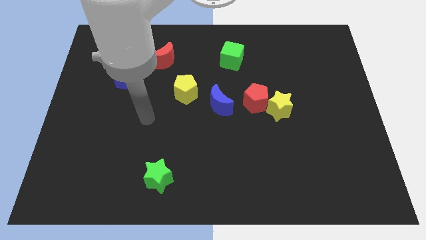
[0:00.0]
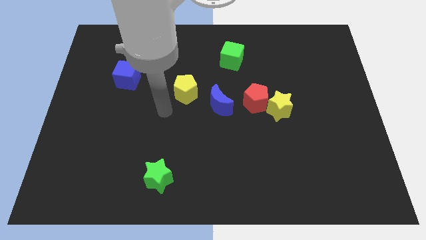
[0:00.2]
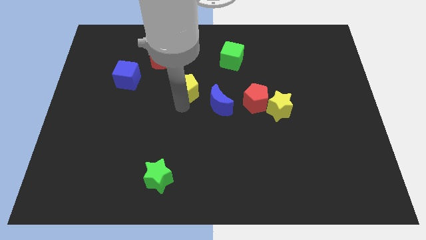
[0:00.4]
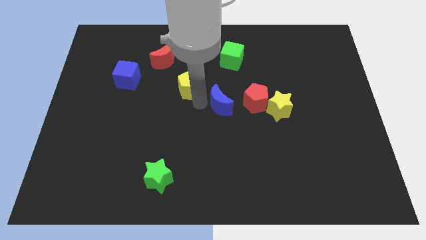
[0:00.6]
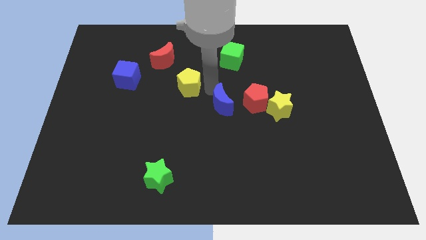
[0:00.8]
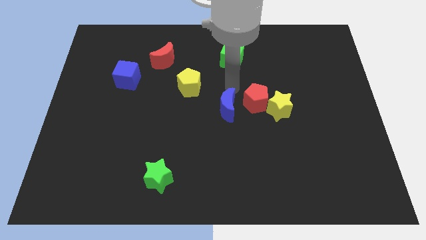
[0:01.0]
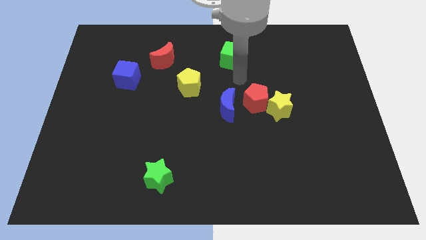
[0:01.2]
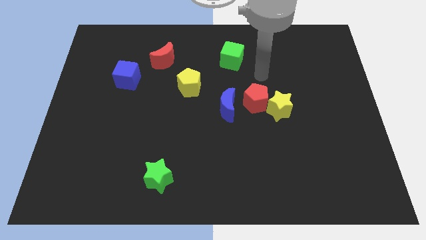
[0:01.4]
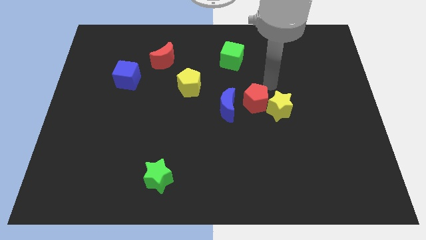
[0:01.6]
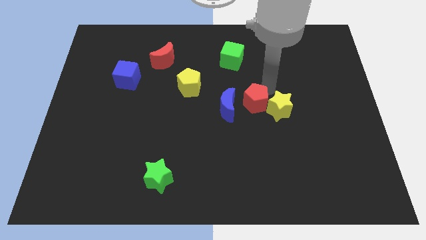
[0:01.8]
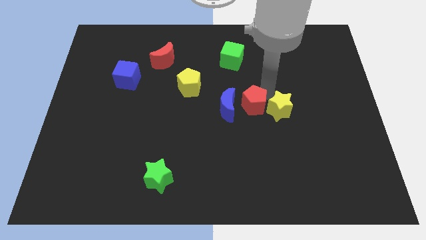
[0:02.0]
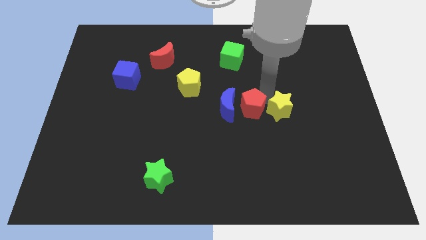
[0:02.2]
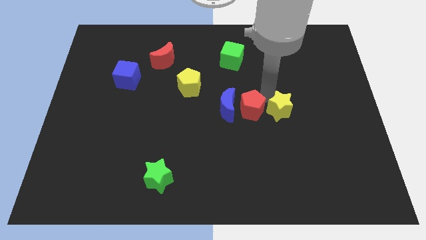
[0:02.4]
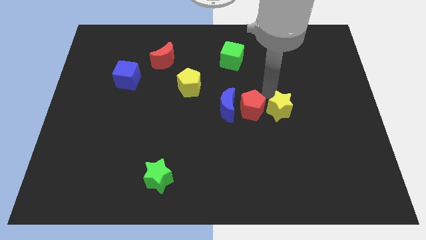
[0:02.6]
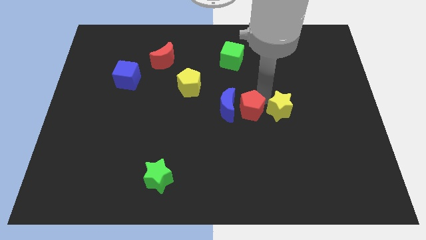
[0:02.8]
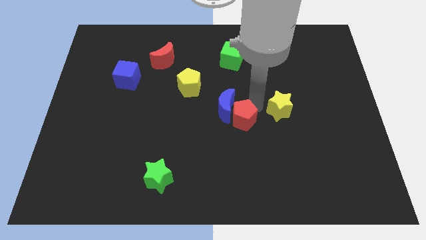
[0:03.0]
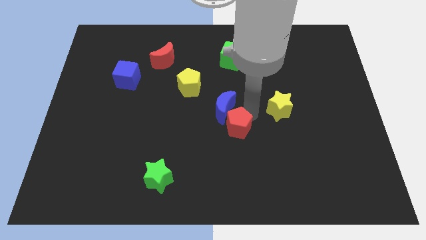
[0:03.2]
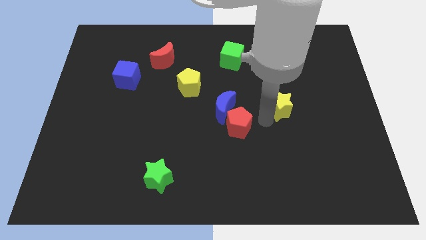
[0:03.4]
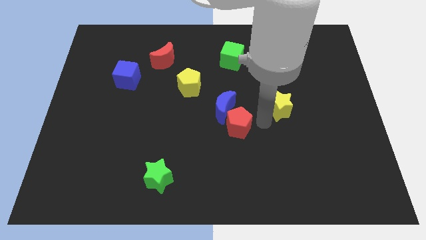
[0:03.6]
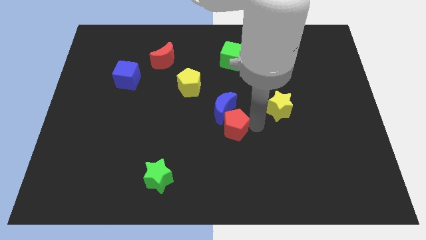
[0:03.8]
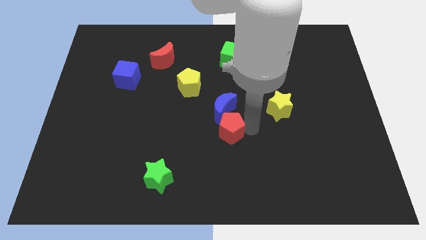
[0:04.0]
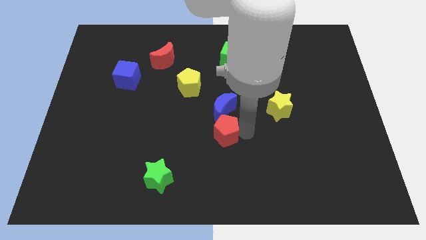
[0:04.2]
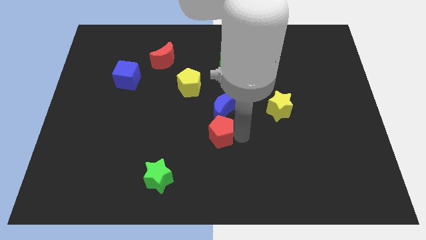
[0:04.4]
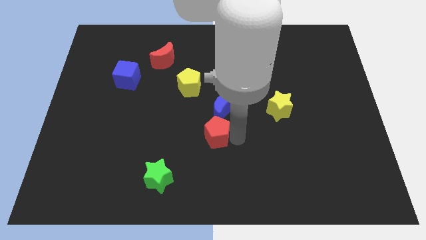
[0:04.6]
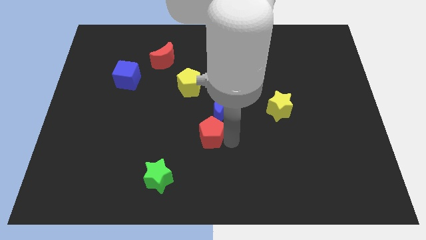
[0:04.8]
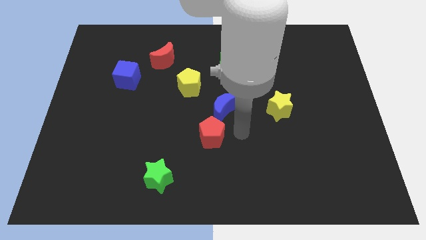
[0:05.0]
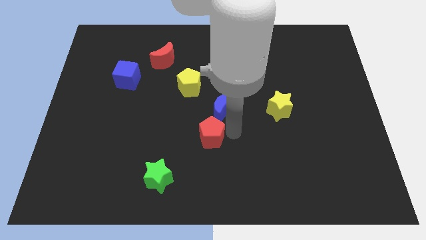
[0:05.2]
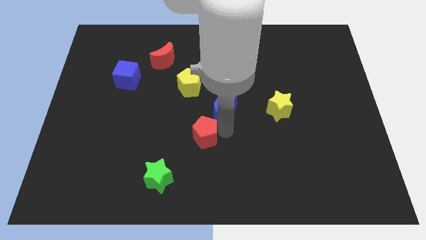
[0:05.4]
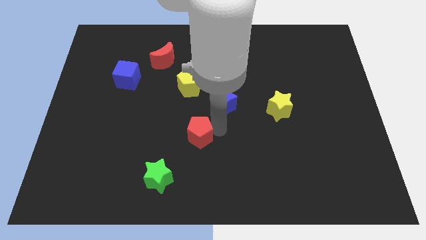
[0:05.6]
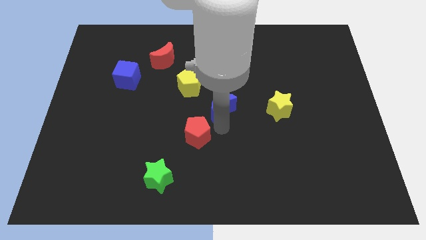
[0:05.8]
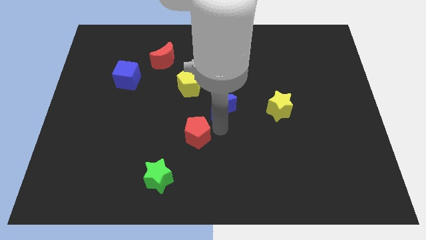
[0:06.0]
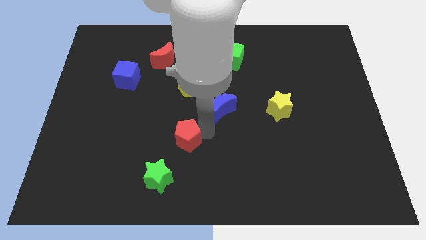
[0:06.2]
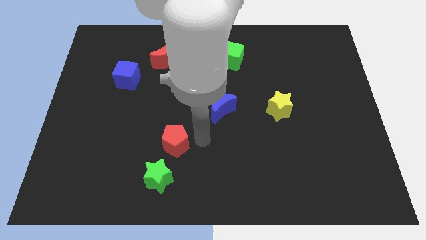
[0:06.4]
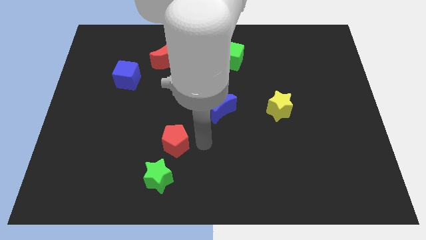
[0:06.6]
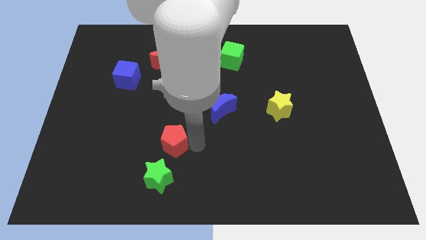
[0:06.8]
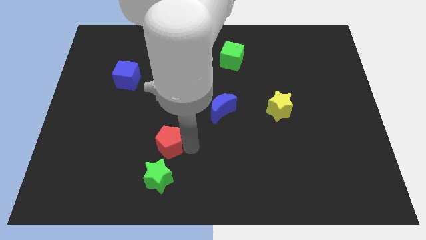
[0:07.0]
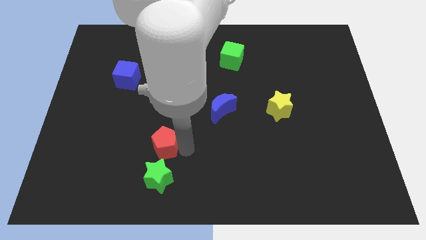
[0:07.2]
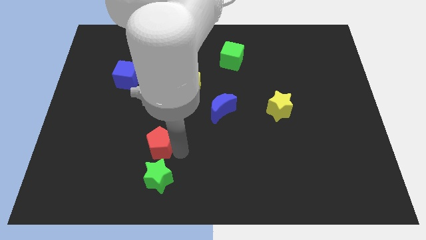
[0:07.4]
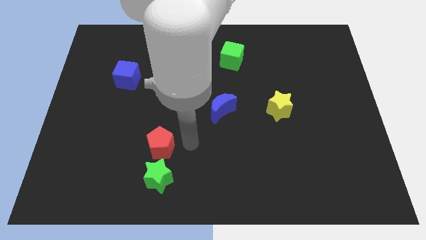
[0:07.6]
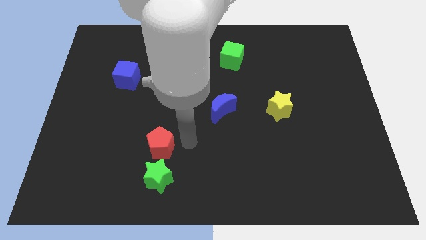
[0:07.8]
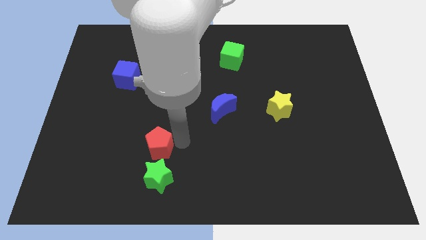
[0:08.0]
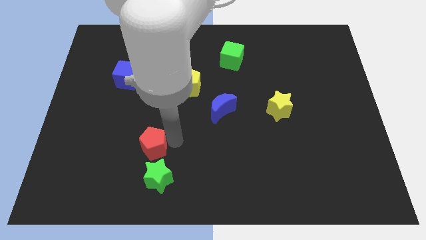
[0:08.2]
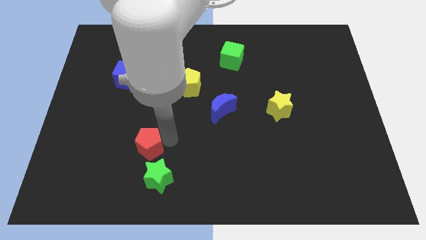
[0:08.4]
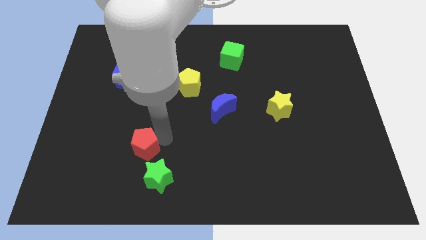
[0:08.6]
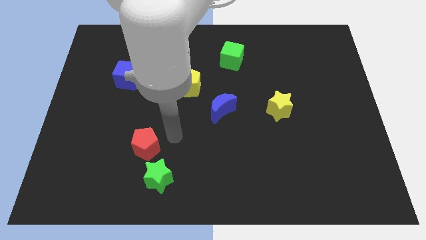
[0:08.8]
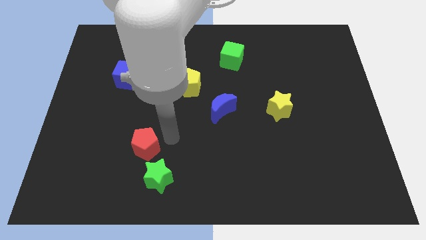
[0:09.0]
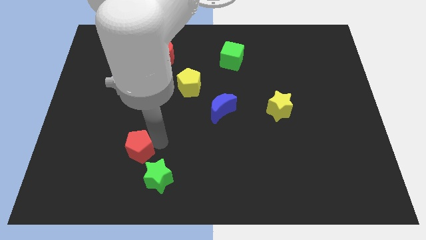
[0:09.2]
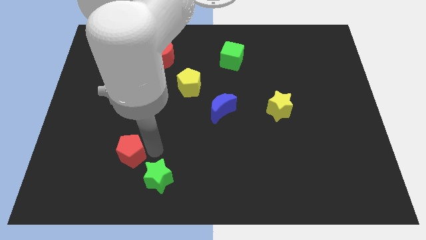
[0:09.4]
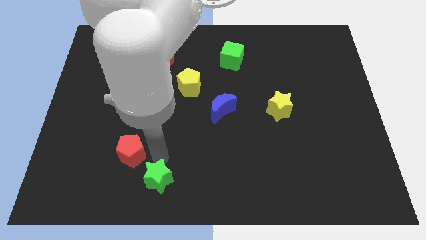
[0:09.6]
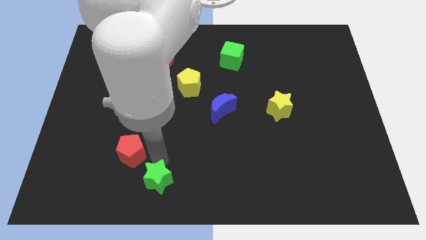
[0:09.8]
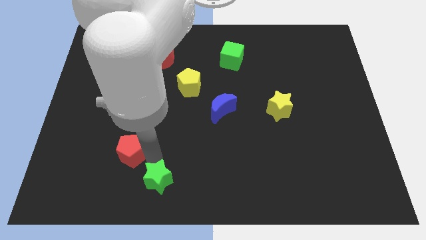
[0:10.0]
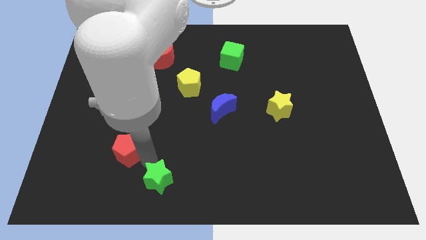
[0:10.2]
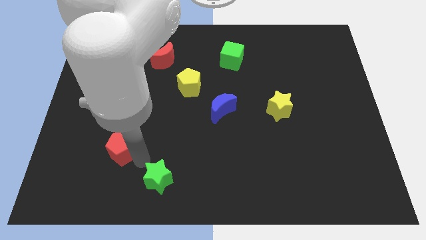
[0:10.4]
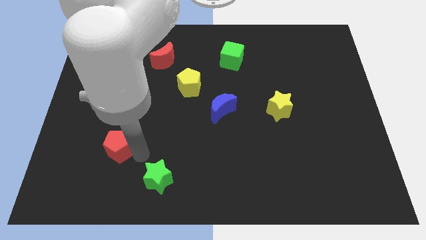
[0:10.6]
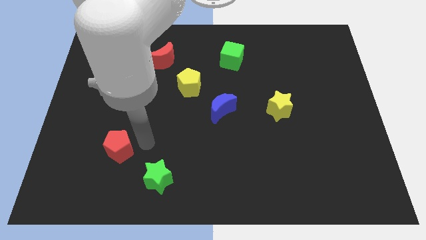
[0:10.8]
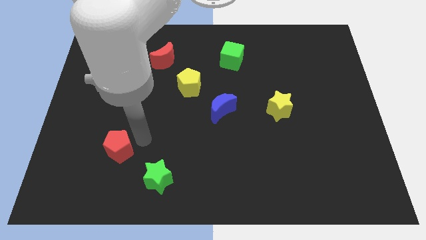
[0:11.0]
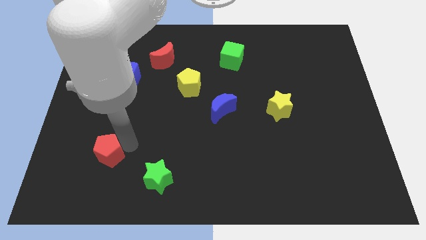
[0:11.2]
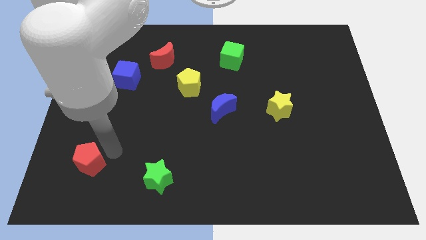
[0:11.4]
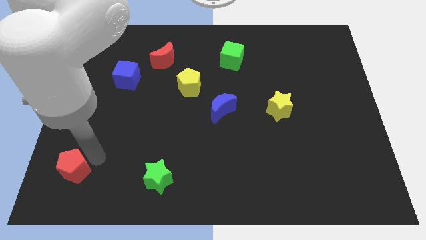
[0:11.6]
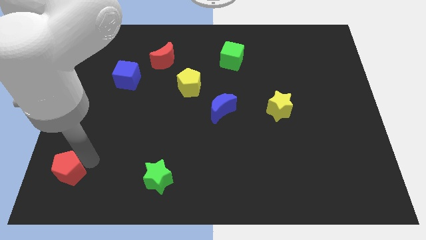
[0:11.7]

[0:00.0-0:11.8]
slide the red pentagon to the bottom left

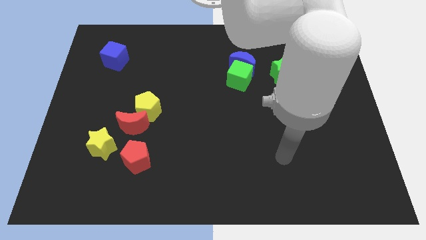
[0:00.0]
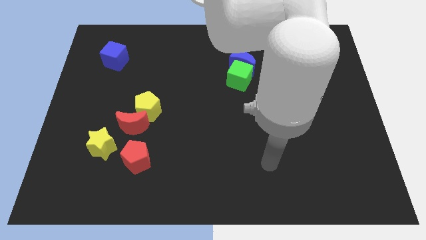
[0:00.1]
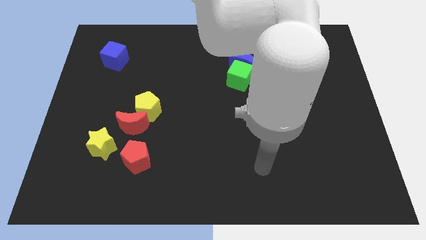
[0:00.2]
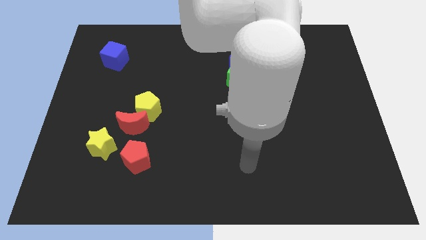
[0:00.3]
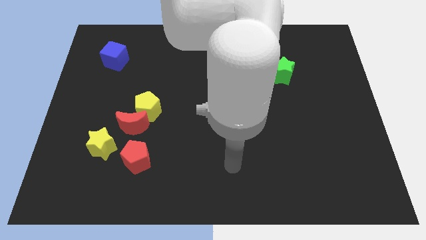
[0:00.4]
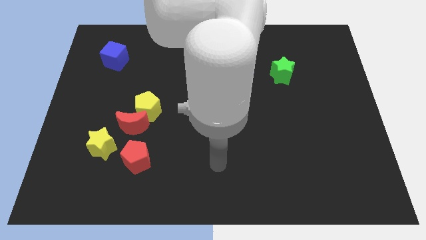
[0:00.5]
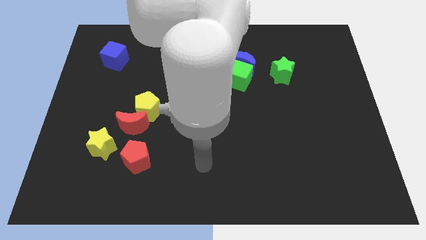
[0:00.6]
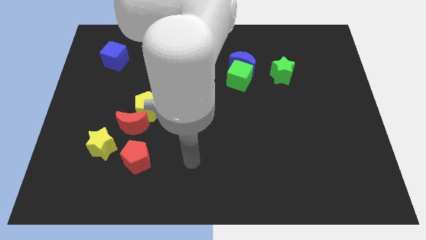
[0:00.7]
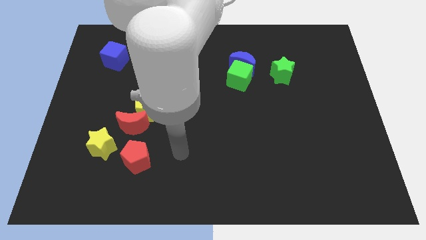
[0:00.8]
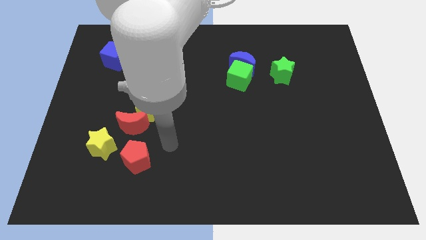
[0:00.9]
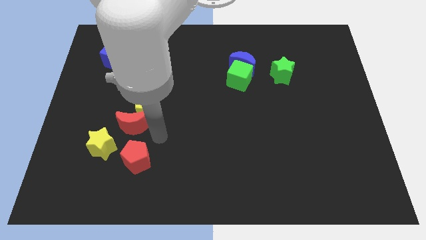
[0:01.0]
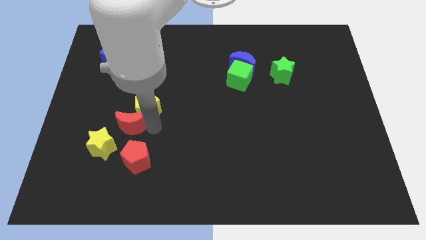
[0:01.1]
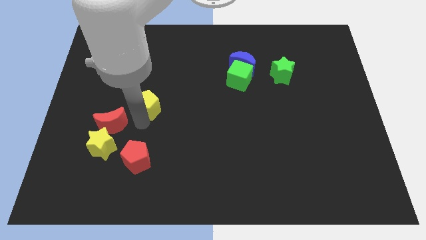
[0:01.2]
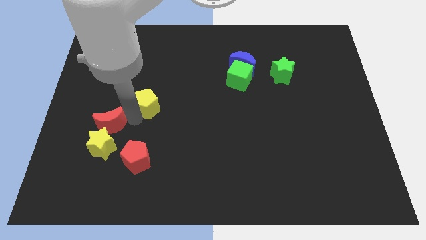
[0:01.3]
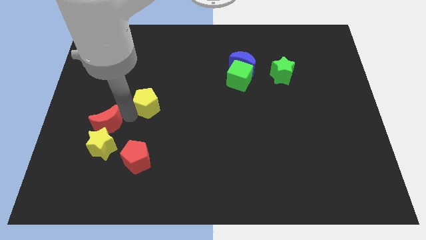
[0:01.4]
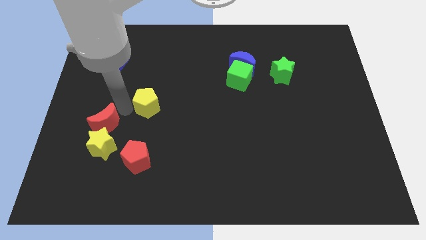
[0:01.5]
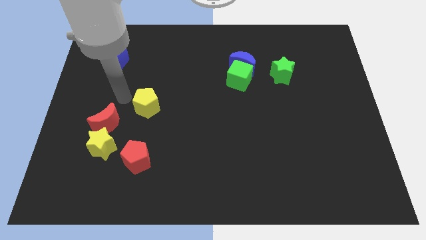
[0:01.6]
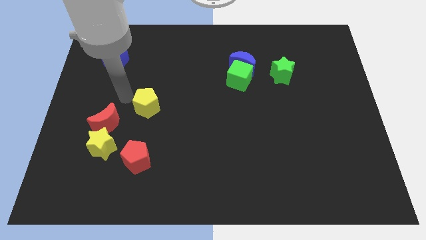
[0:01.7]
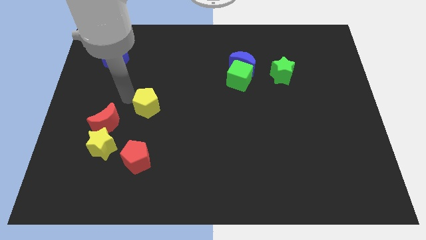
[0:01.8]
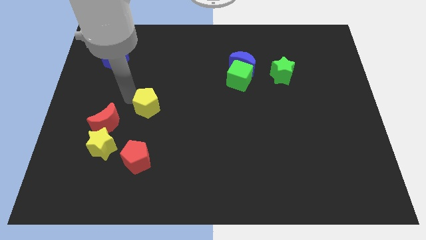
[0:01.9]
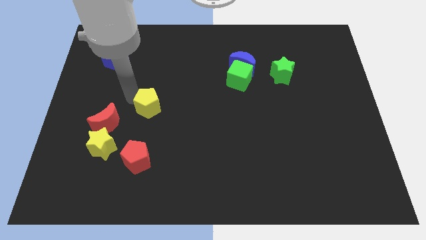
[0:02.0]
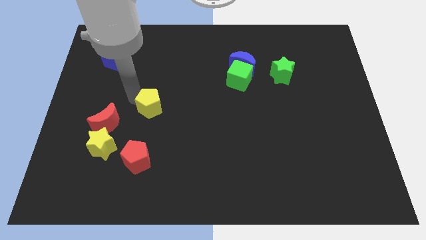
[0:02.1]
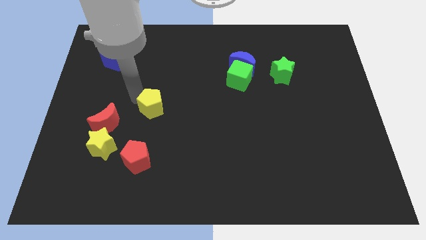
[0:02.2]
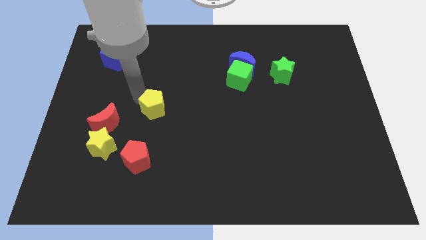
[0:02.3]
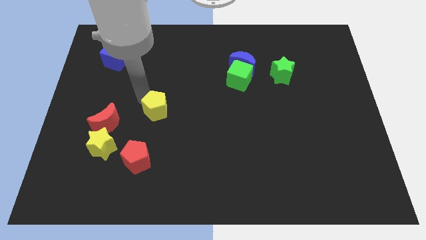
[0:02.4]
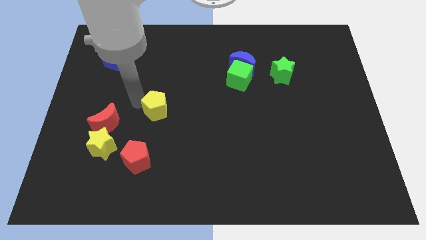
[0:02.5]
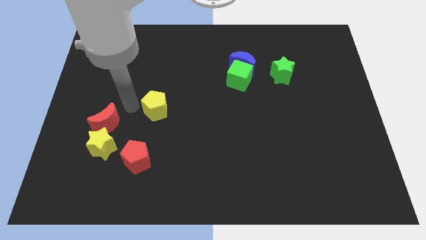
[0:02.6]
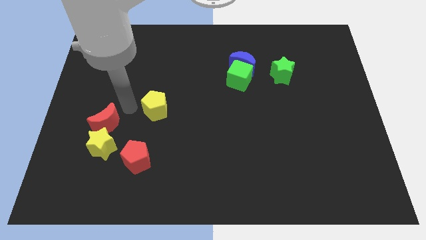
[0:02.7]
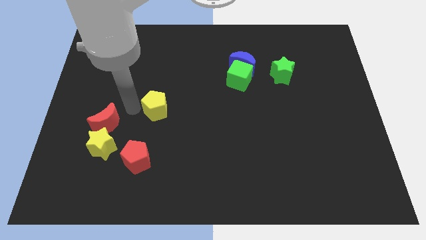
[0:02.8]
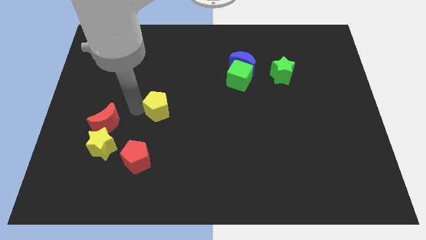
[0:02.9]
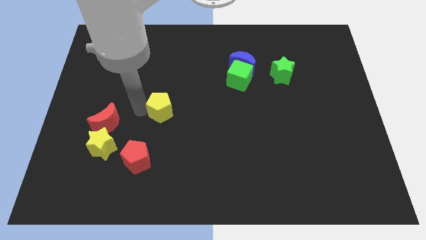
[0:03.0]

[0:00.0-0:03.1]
move the yellow pentagon to the center
